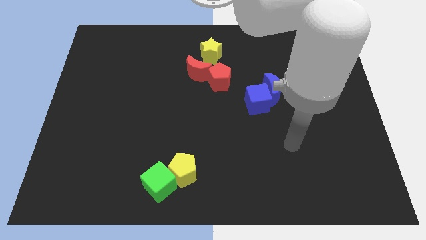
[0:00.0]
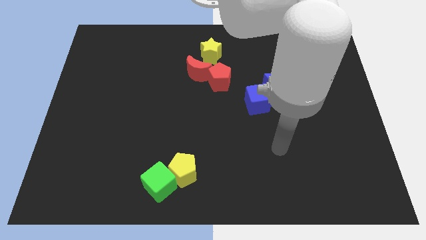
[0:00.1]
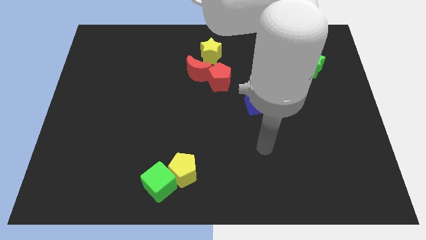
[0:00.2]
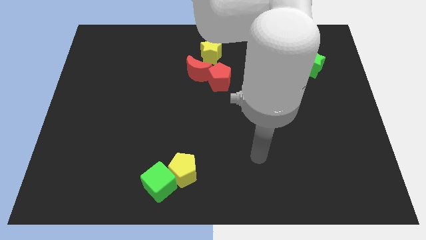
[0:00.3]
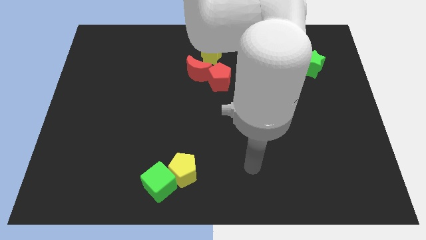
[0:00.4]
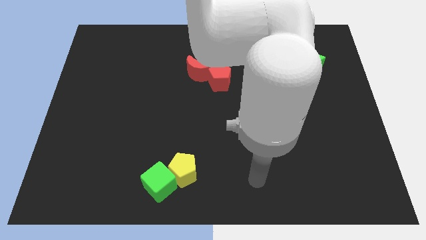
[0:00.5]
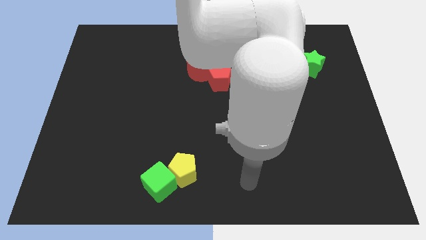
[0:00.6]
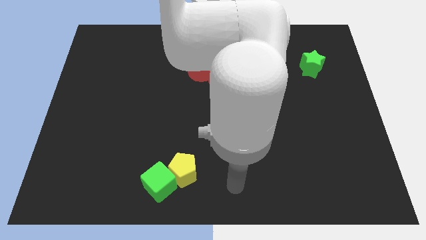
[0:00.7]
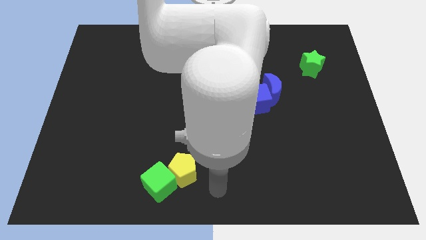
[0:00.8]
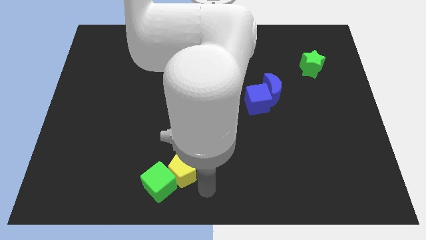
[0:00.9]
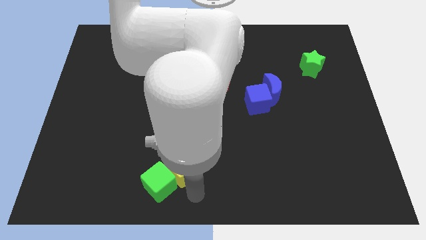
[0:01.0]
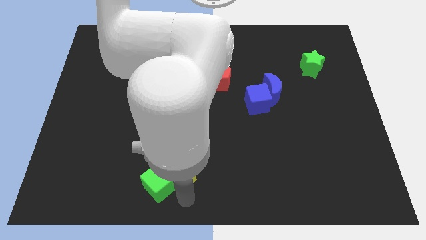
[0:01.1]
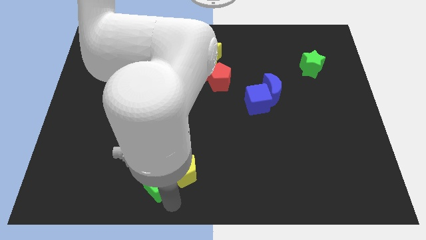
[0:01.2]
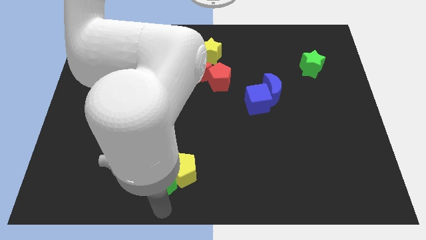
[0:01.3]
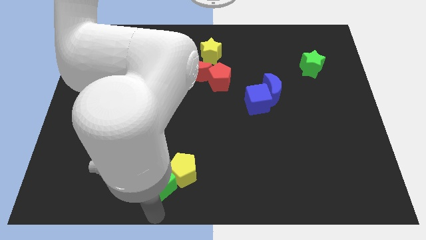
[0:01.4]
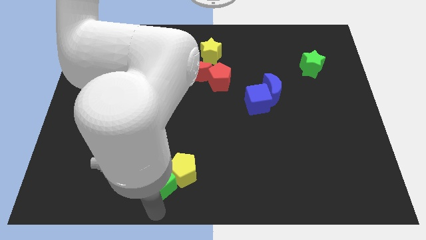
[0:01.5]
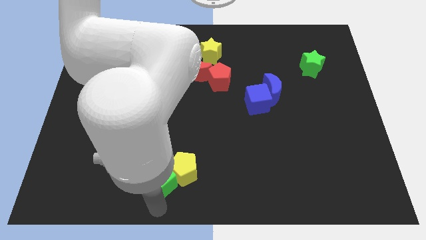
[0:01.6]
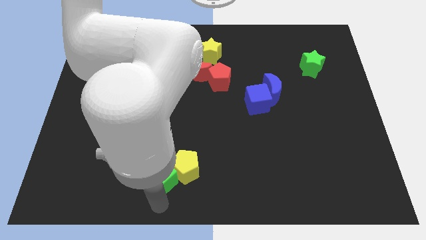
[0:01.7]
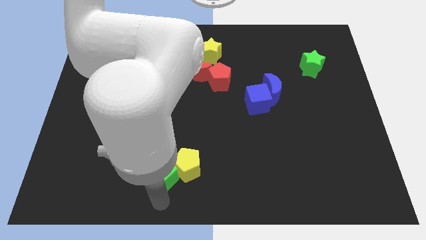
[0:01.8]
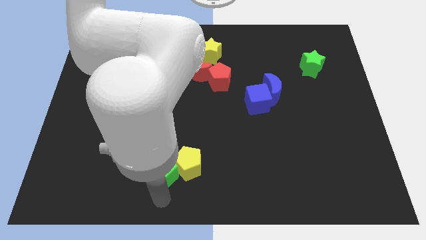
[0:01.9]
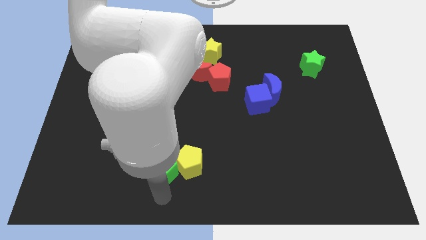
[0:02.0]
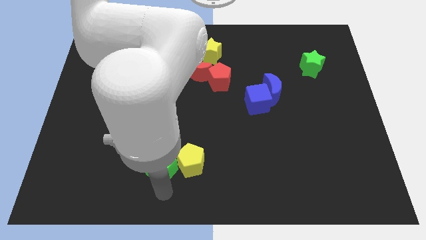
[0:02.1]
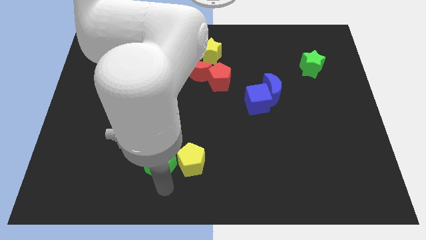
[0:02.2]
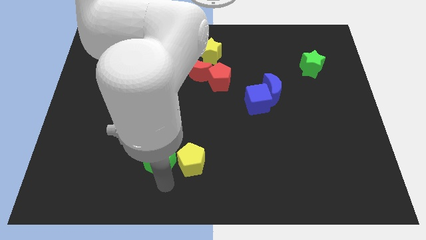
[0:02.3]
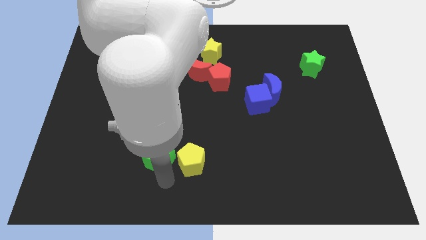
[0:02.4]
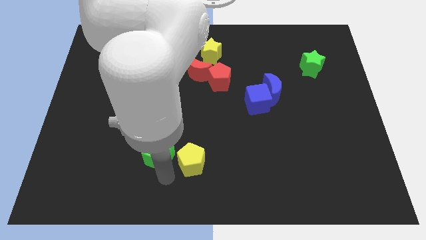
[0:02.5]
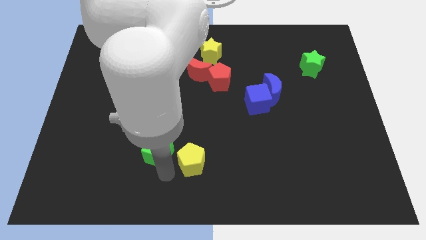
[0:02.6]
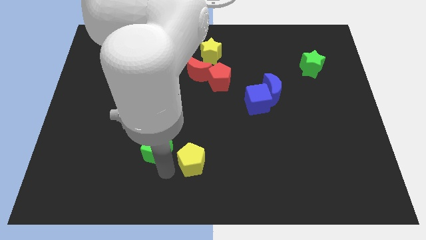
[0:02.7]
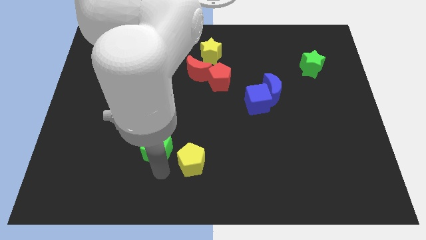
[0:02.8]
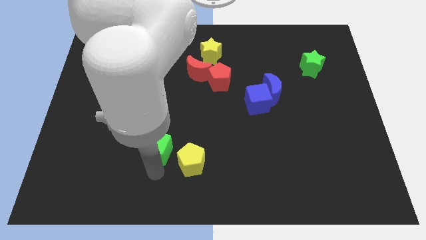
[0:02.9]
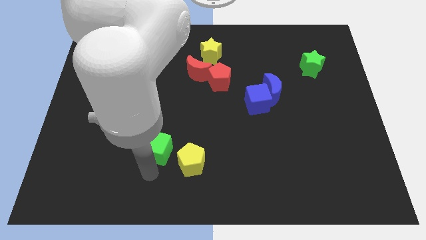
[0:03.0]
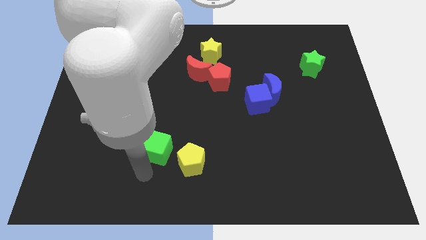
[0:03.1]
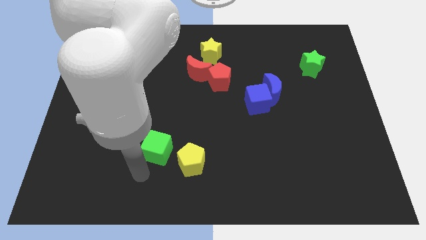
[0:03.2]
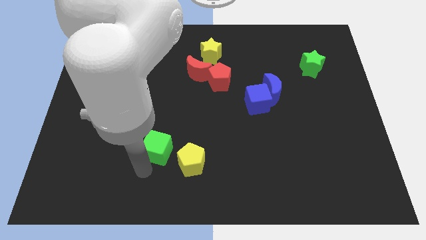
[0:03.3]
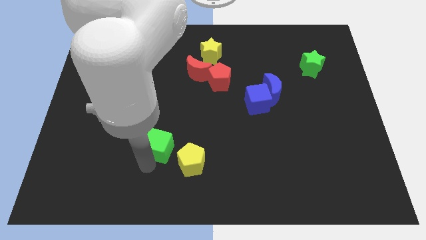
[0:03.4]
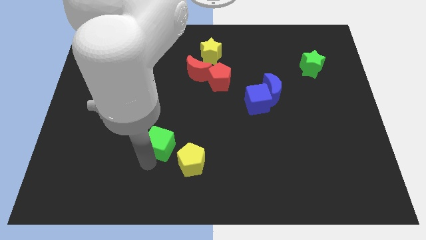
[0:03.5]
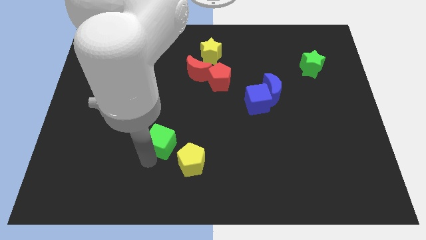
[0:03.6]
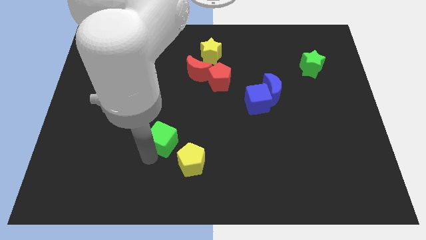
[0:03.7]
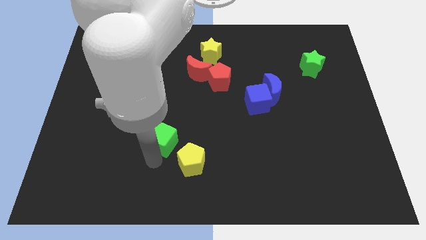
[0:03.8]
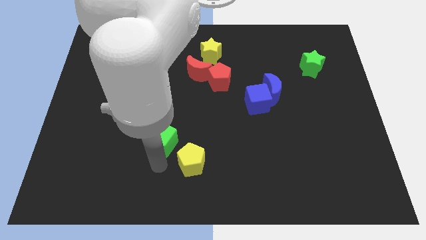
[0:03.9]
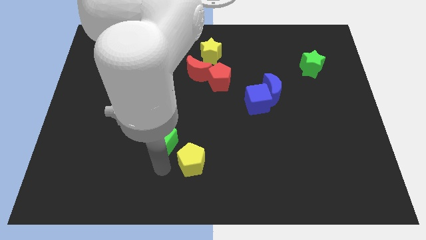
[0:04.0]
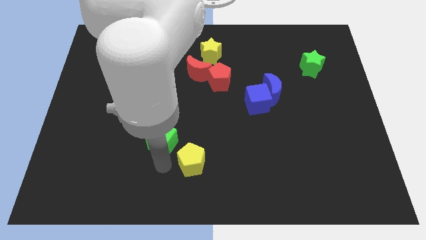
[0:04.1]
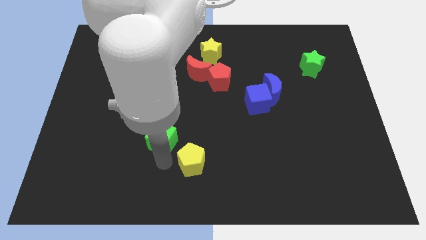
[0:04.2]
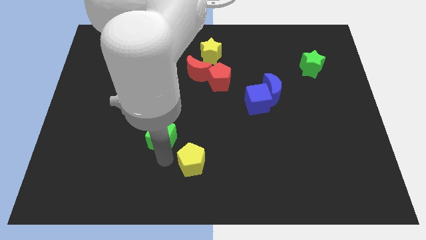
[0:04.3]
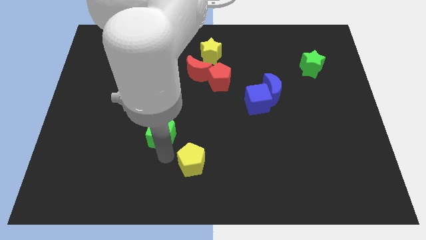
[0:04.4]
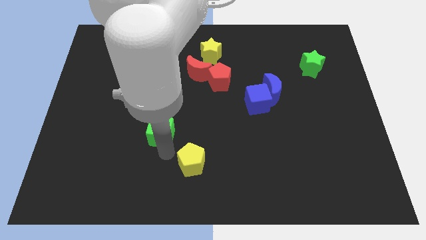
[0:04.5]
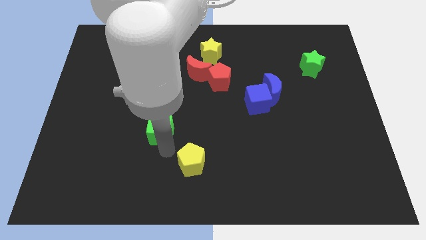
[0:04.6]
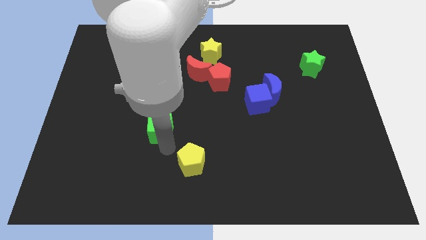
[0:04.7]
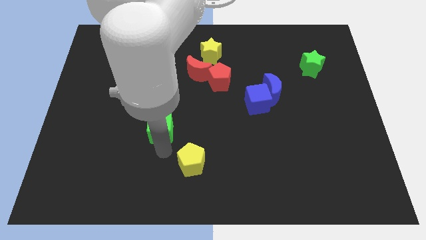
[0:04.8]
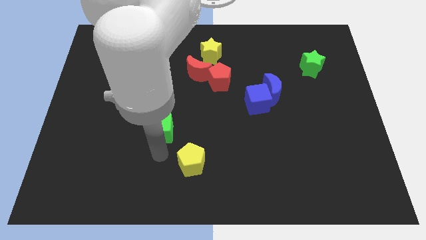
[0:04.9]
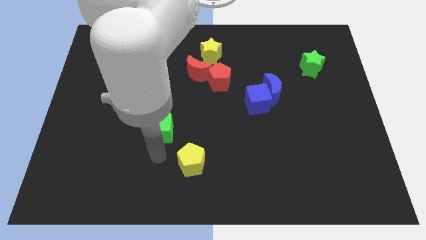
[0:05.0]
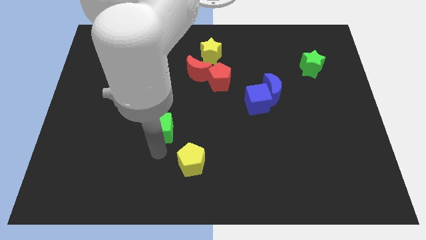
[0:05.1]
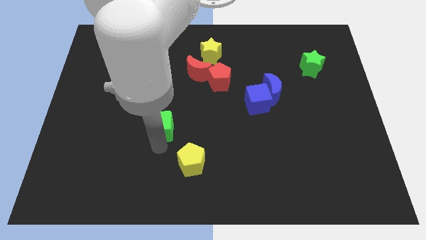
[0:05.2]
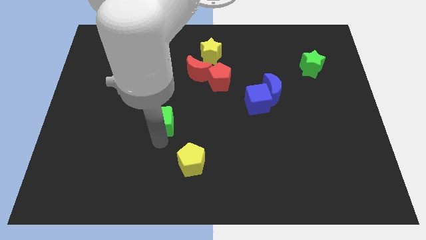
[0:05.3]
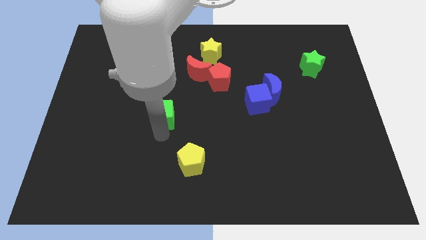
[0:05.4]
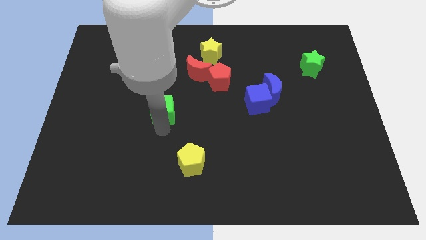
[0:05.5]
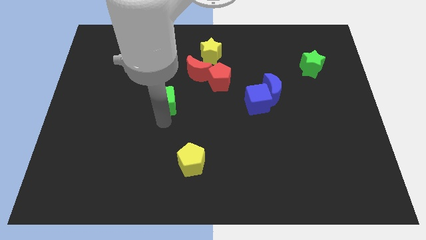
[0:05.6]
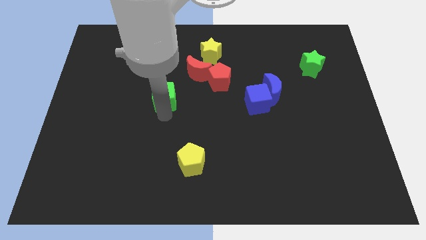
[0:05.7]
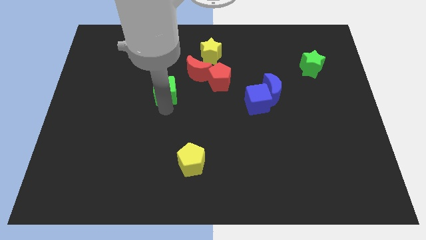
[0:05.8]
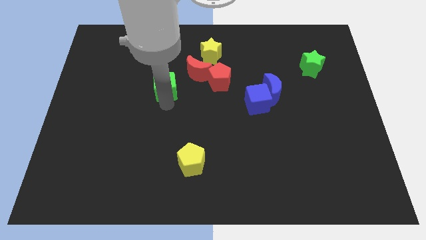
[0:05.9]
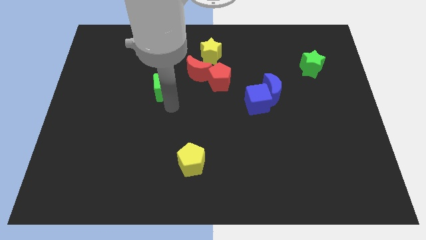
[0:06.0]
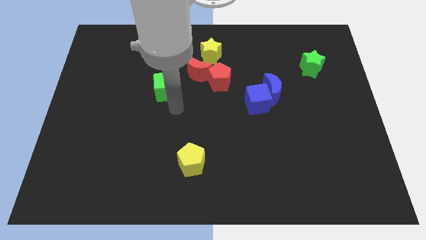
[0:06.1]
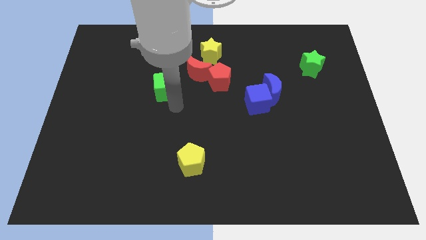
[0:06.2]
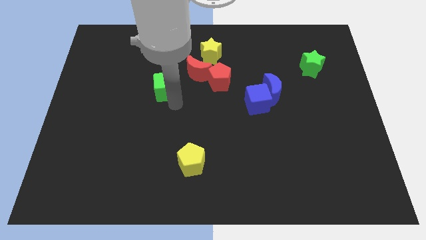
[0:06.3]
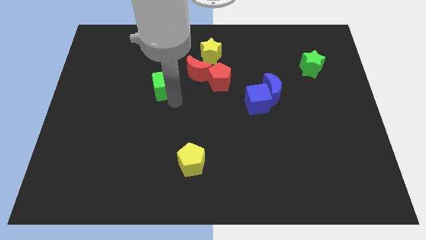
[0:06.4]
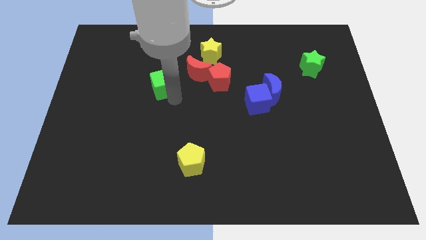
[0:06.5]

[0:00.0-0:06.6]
move the green cube to the left of the red moon

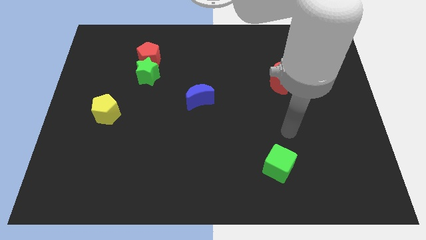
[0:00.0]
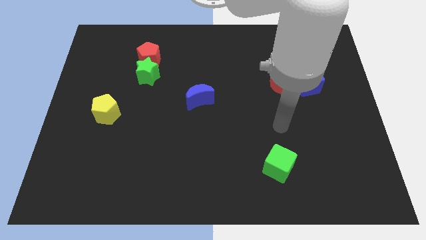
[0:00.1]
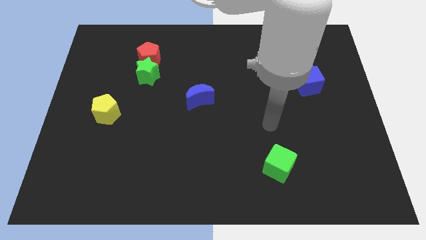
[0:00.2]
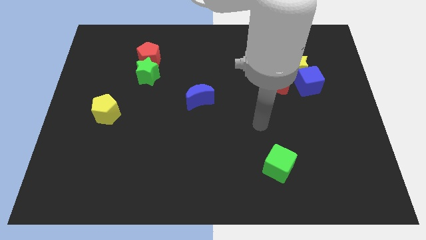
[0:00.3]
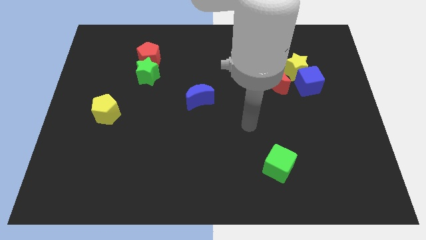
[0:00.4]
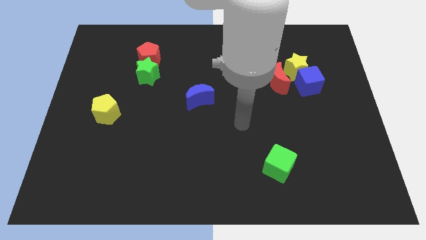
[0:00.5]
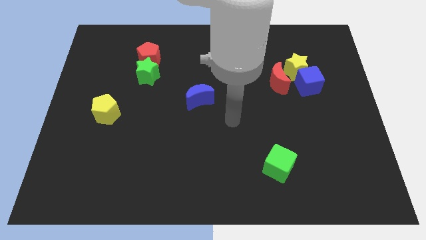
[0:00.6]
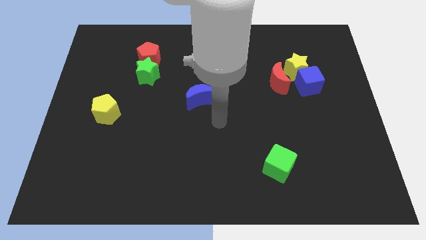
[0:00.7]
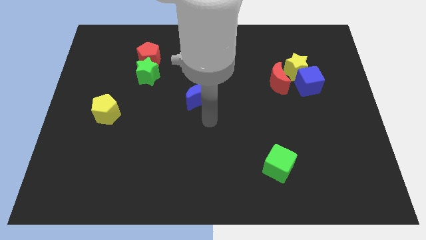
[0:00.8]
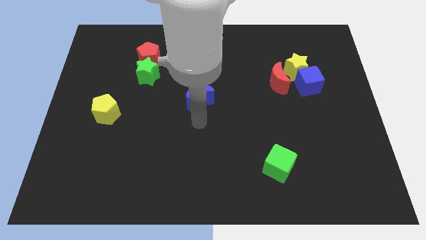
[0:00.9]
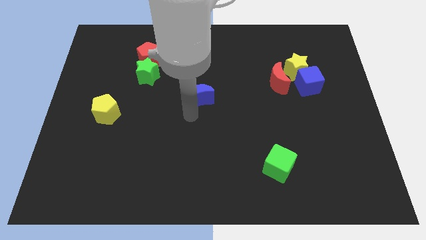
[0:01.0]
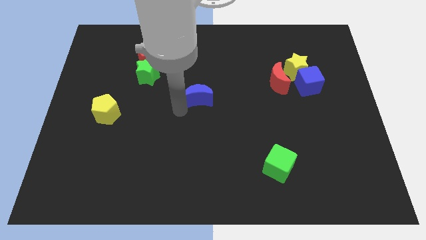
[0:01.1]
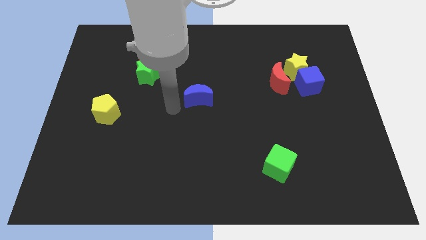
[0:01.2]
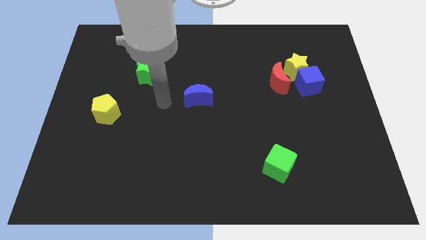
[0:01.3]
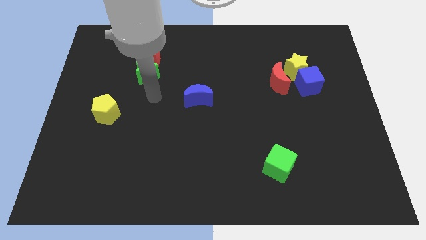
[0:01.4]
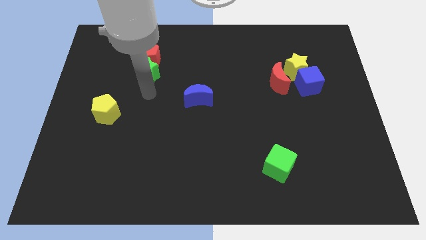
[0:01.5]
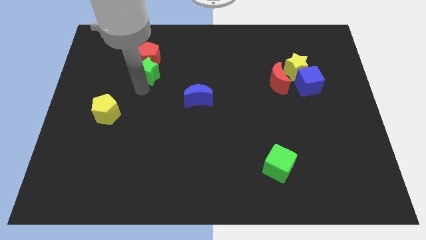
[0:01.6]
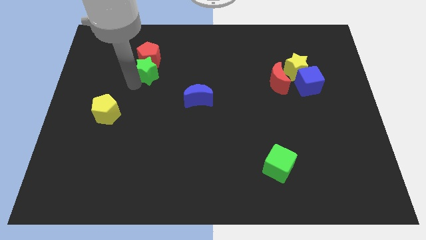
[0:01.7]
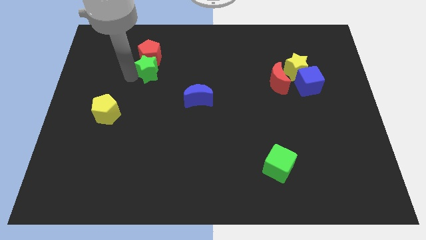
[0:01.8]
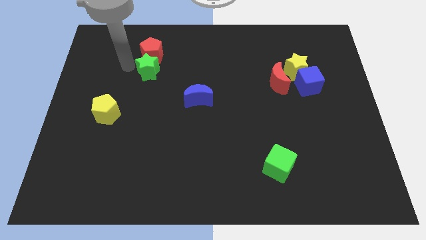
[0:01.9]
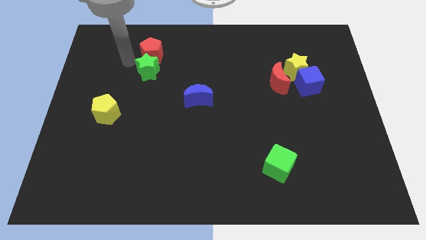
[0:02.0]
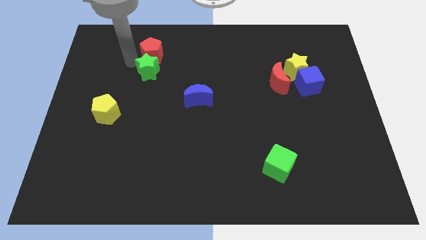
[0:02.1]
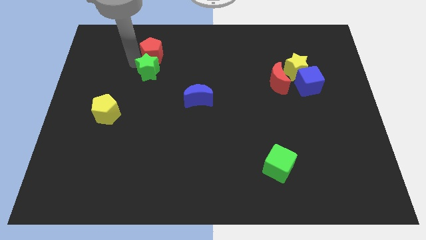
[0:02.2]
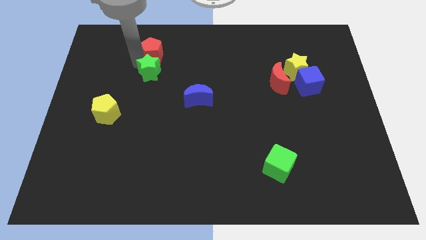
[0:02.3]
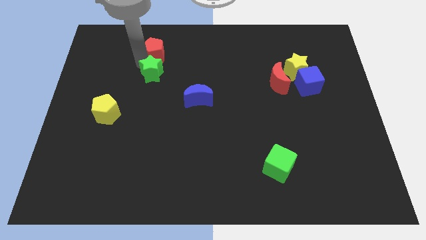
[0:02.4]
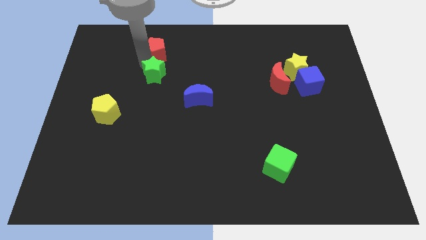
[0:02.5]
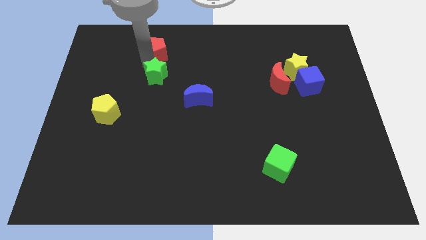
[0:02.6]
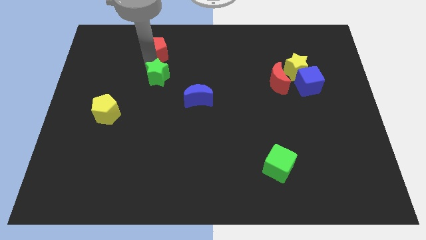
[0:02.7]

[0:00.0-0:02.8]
move the green star to the top left side of the blue moon
